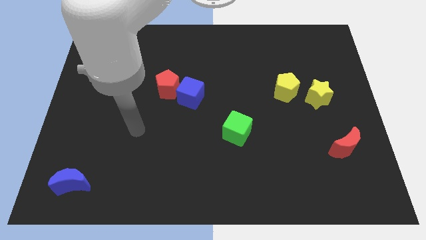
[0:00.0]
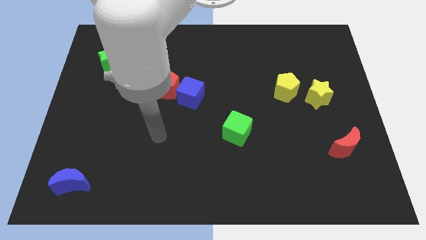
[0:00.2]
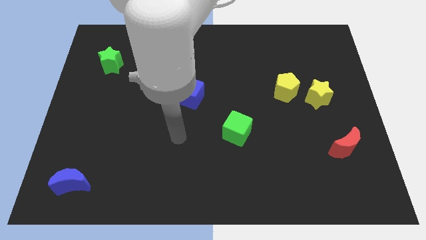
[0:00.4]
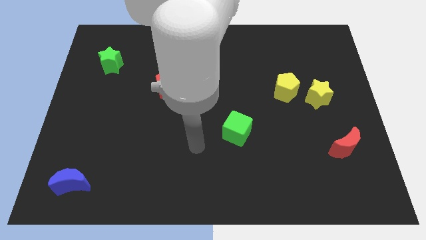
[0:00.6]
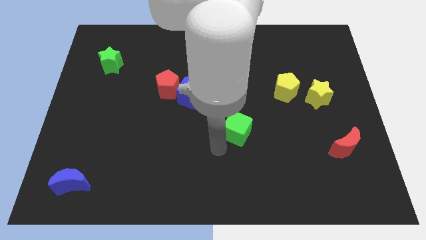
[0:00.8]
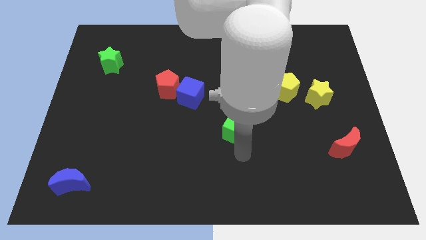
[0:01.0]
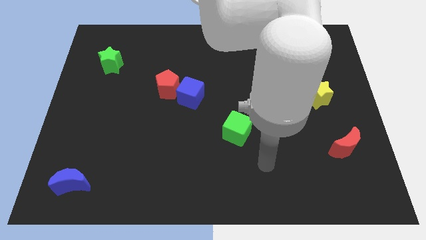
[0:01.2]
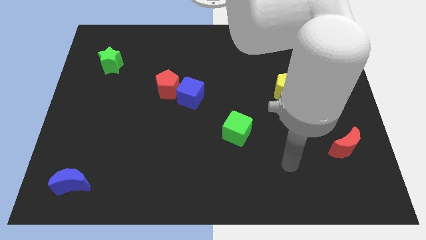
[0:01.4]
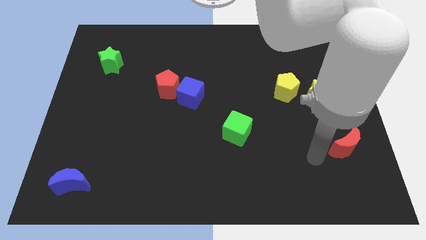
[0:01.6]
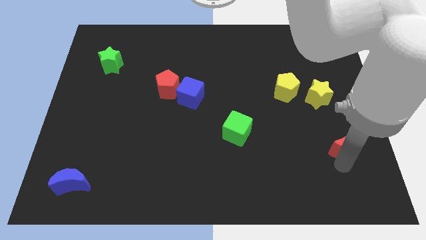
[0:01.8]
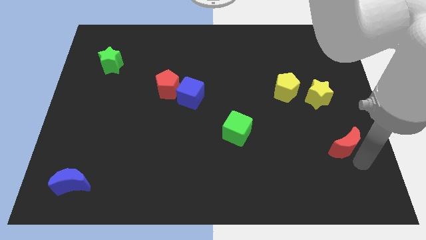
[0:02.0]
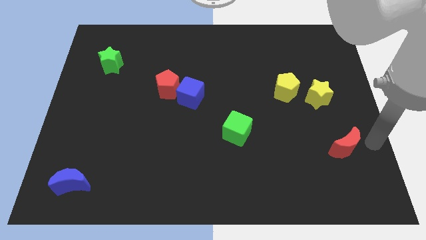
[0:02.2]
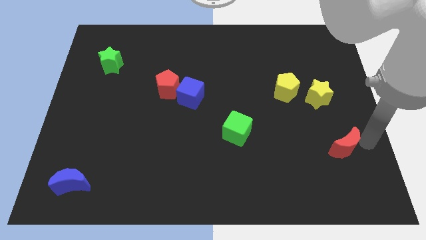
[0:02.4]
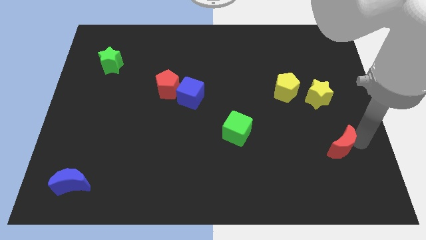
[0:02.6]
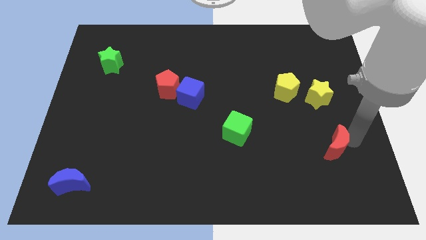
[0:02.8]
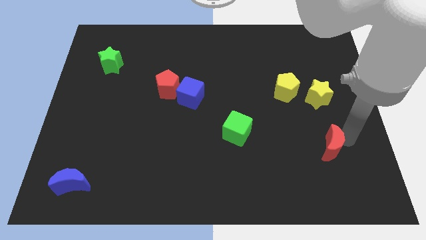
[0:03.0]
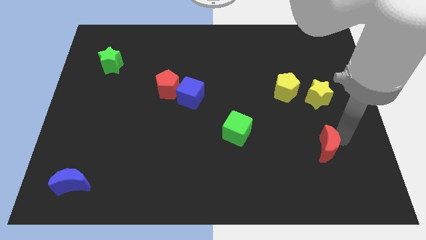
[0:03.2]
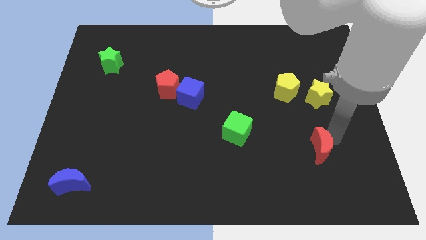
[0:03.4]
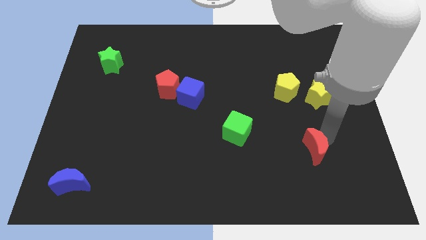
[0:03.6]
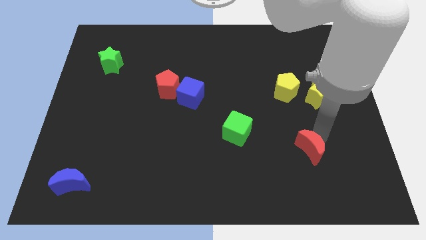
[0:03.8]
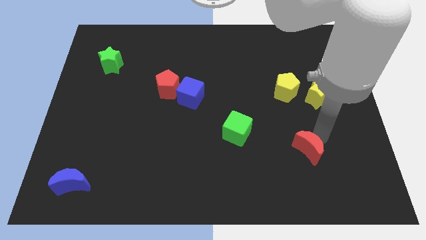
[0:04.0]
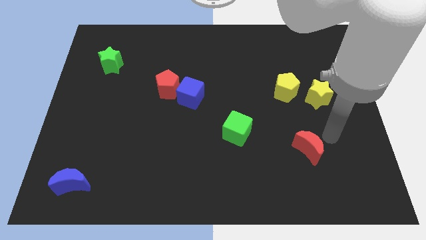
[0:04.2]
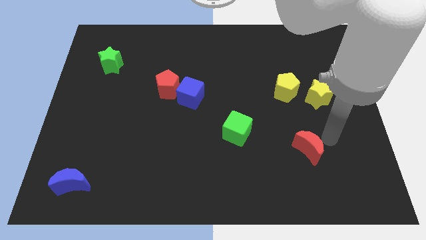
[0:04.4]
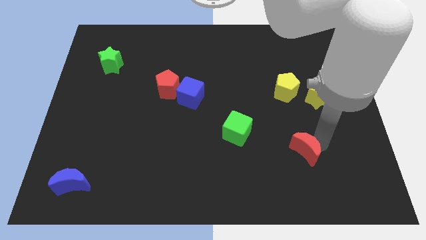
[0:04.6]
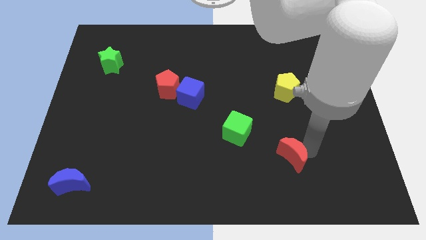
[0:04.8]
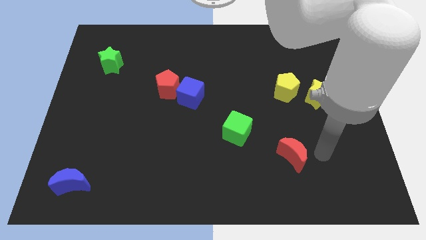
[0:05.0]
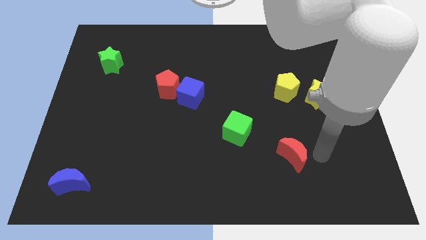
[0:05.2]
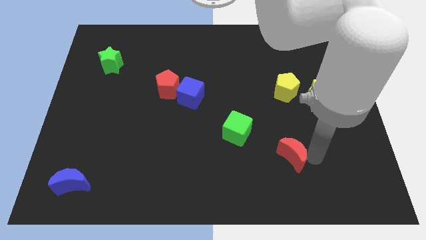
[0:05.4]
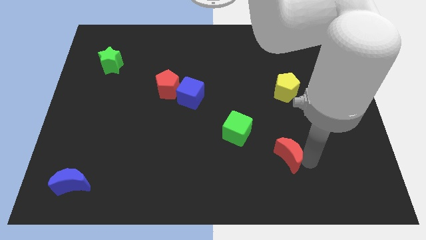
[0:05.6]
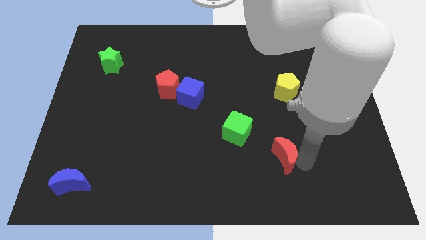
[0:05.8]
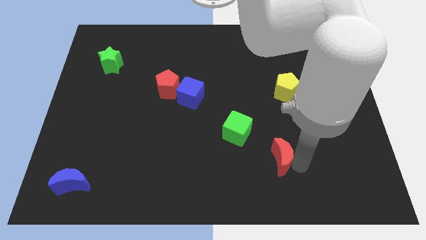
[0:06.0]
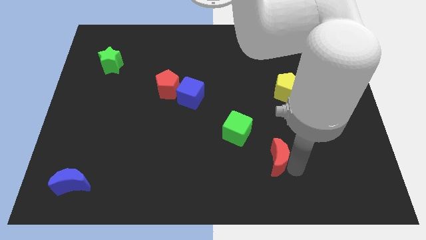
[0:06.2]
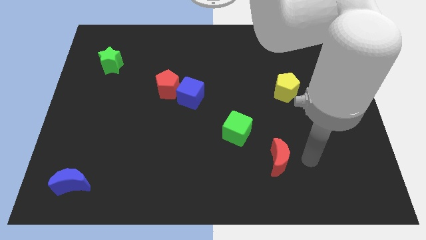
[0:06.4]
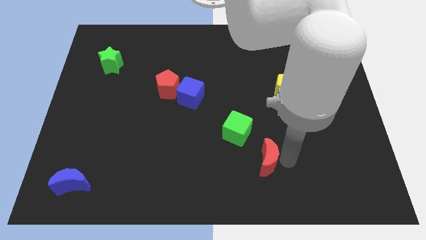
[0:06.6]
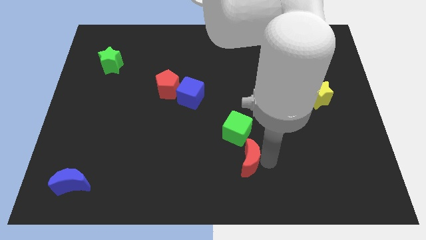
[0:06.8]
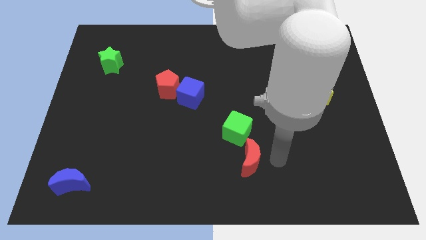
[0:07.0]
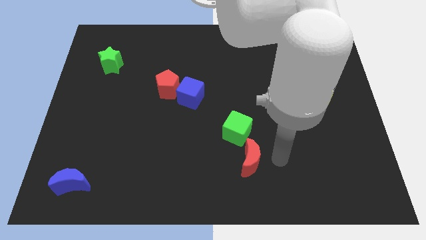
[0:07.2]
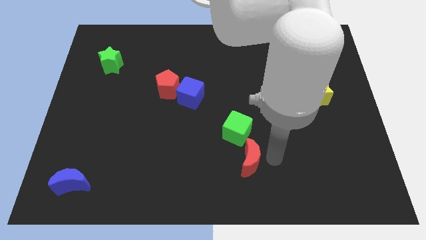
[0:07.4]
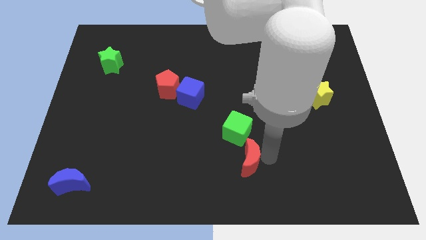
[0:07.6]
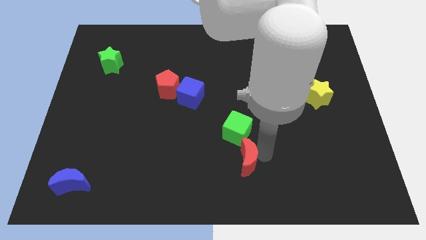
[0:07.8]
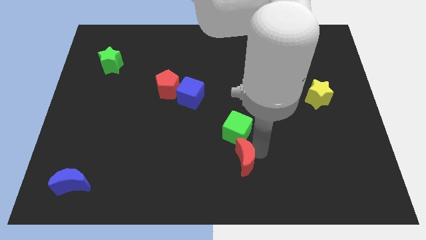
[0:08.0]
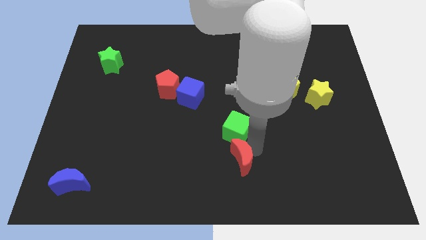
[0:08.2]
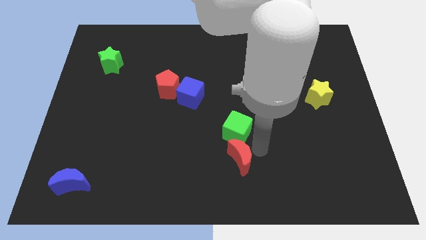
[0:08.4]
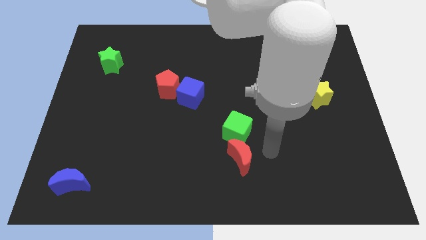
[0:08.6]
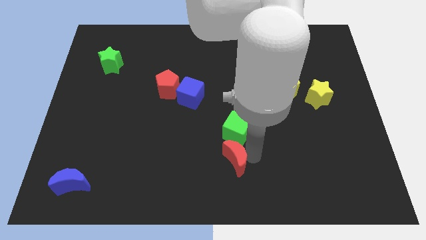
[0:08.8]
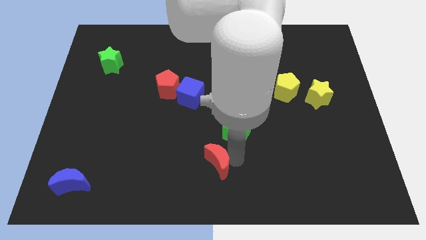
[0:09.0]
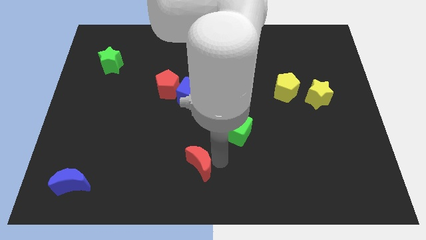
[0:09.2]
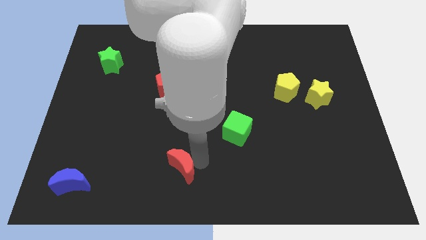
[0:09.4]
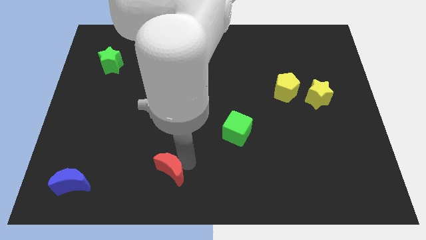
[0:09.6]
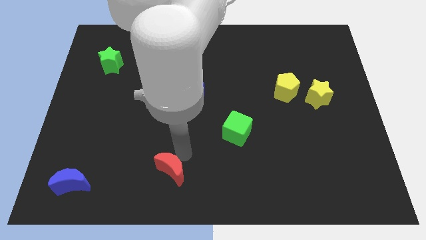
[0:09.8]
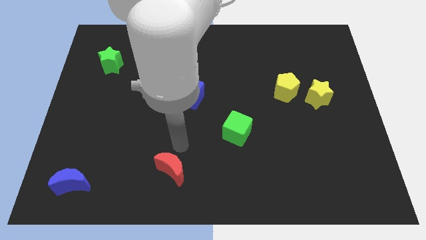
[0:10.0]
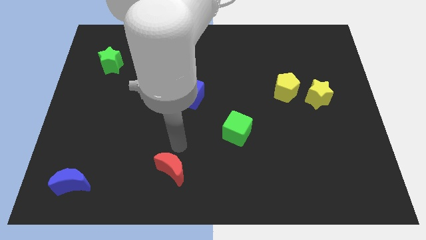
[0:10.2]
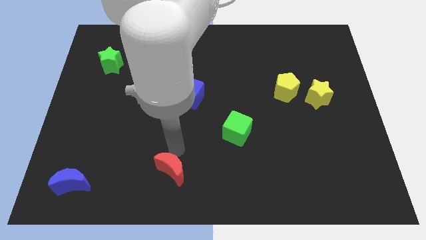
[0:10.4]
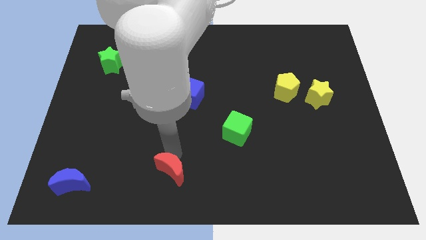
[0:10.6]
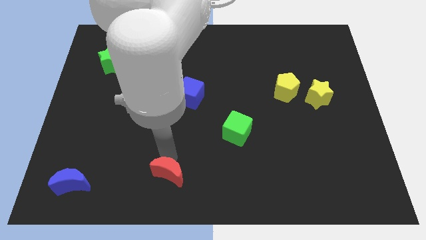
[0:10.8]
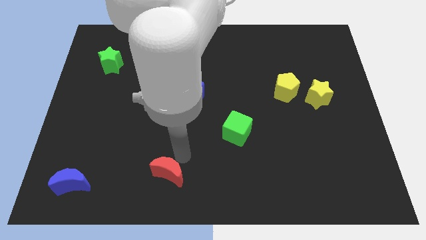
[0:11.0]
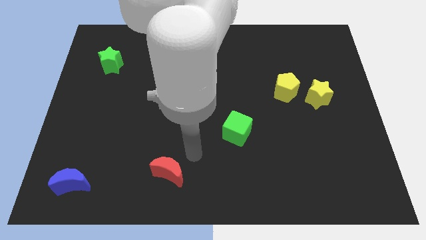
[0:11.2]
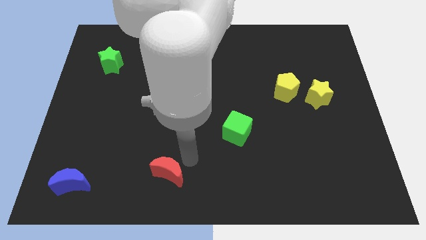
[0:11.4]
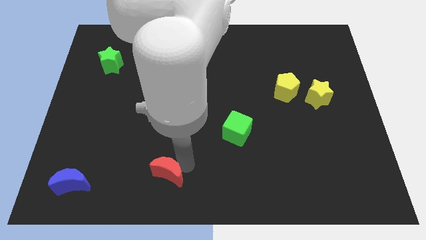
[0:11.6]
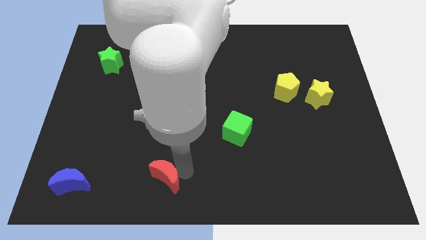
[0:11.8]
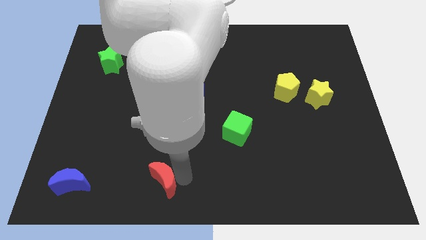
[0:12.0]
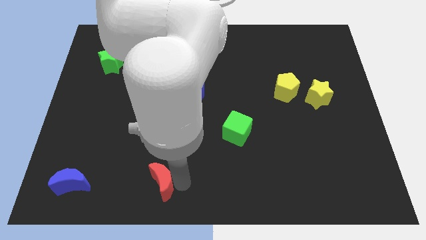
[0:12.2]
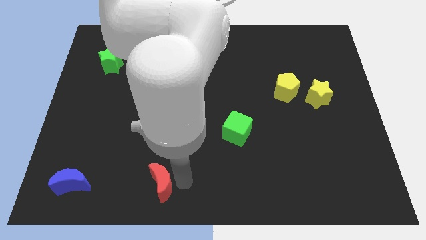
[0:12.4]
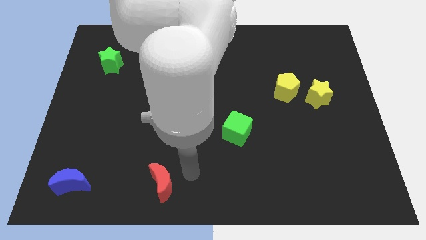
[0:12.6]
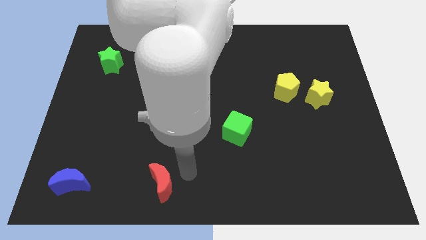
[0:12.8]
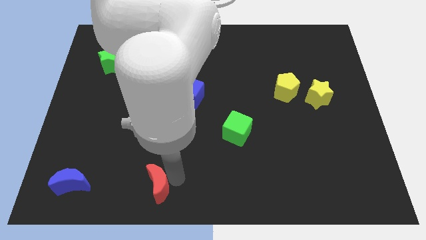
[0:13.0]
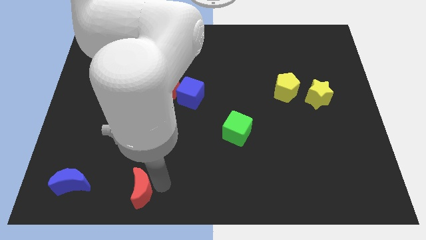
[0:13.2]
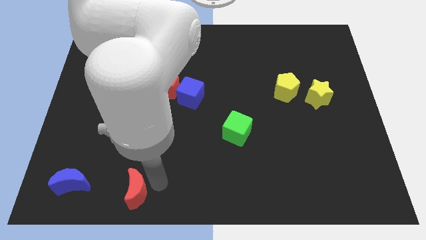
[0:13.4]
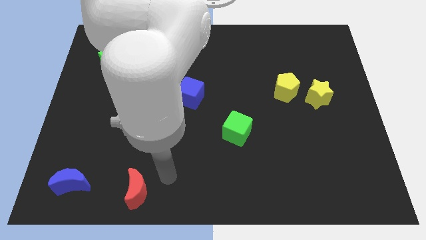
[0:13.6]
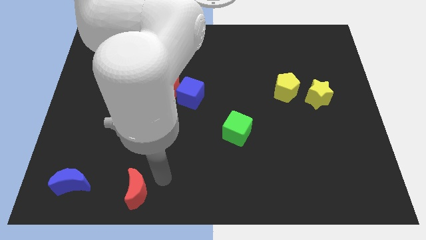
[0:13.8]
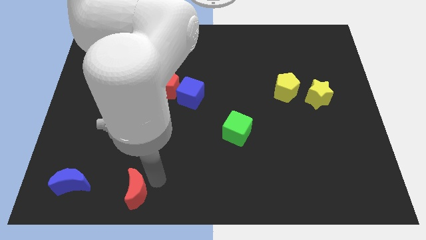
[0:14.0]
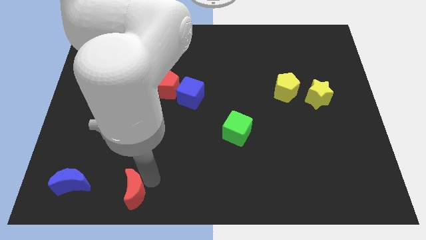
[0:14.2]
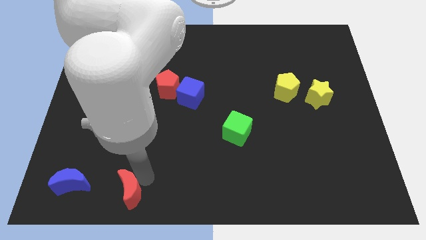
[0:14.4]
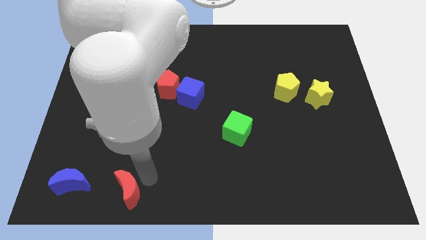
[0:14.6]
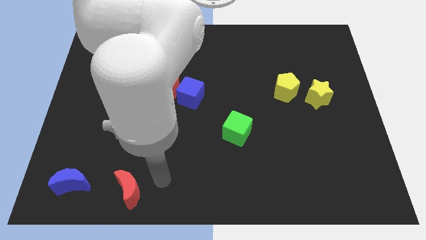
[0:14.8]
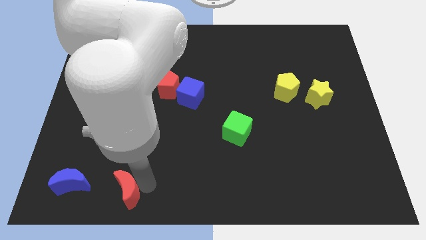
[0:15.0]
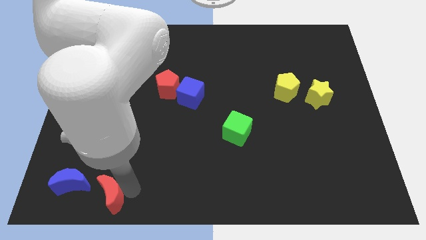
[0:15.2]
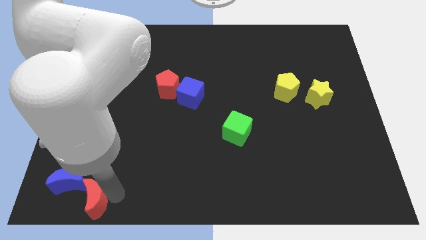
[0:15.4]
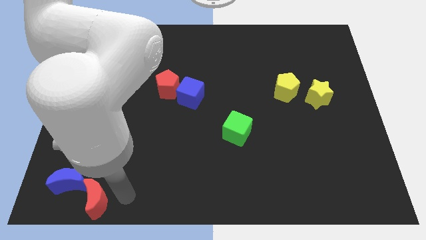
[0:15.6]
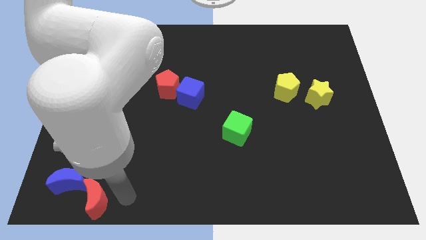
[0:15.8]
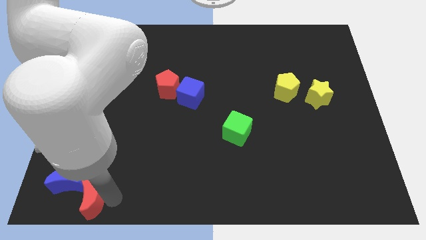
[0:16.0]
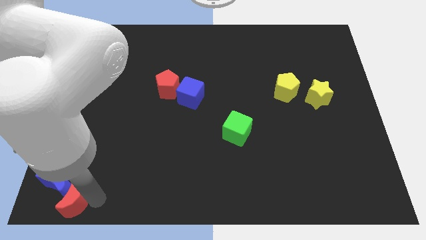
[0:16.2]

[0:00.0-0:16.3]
push the red moon to the bottom left of the board
